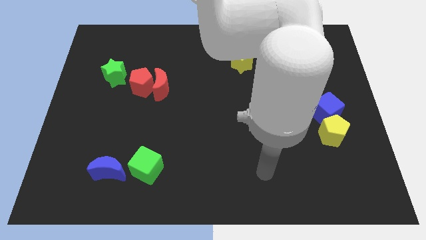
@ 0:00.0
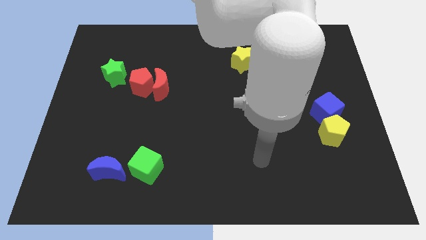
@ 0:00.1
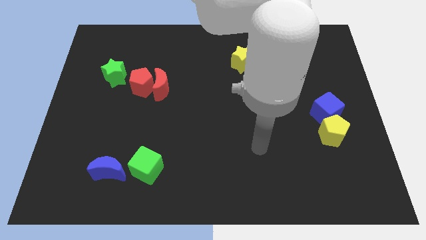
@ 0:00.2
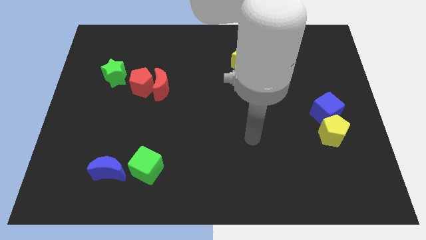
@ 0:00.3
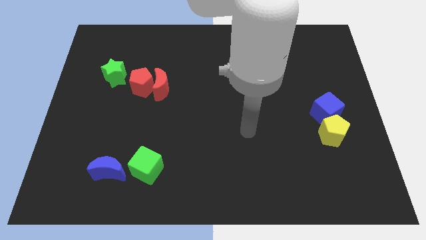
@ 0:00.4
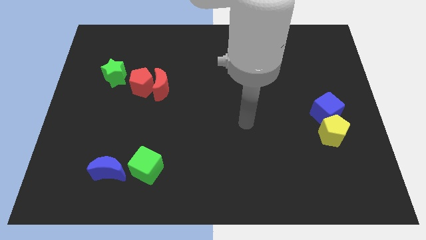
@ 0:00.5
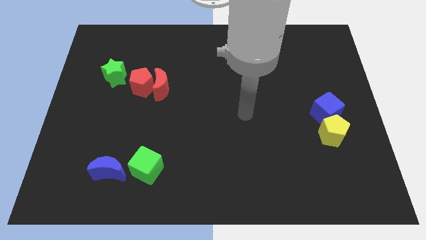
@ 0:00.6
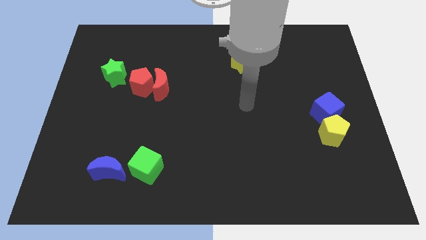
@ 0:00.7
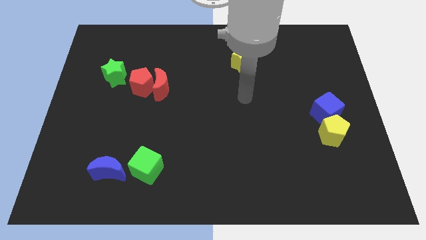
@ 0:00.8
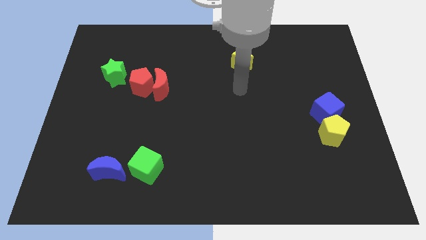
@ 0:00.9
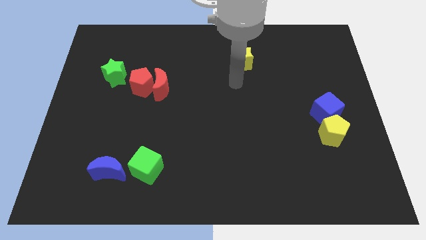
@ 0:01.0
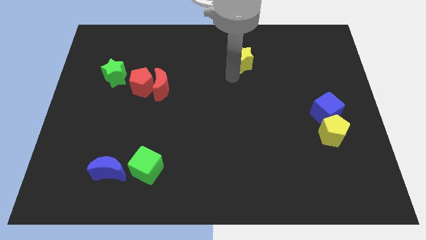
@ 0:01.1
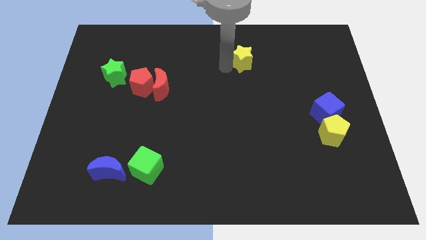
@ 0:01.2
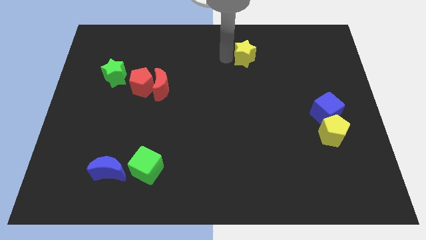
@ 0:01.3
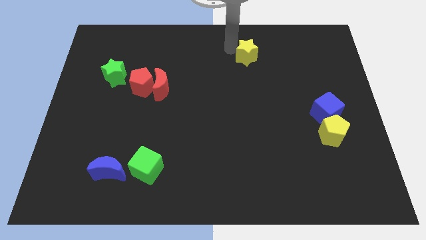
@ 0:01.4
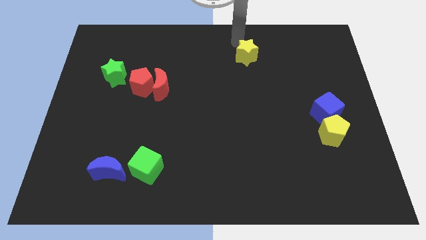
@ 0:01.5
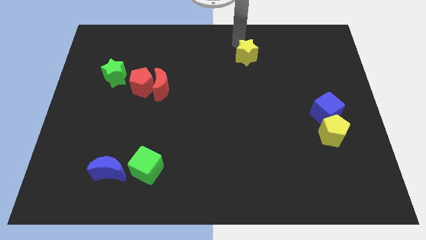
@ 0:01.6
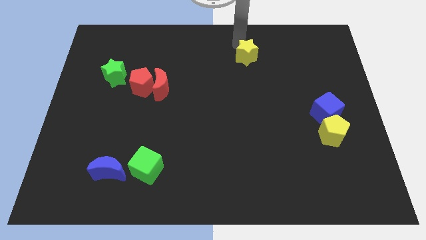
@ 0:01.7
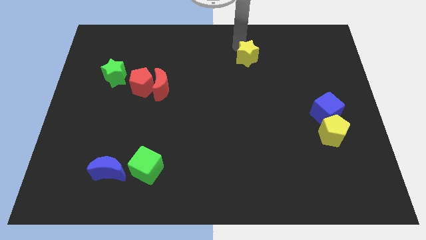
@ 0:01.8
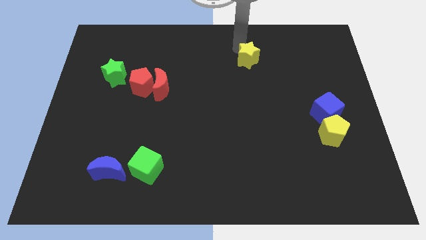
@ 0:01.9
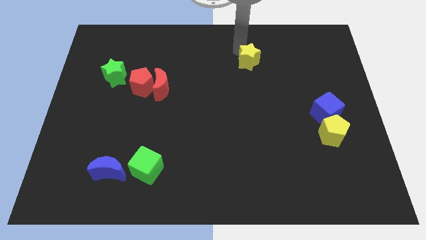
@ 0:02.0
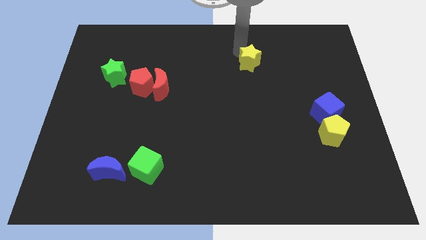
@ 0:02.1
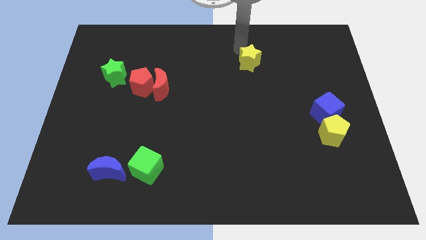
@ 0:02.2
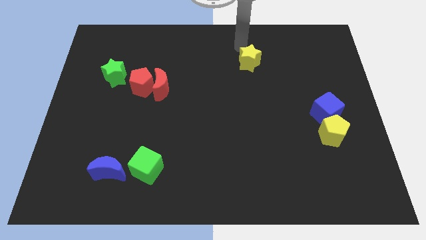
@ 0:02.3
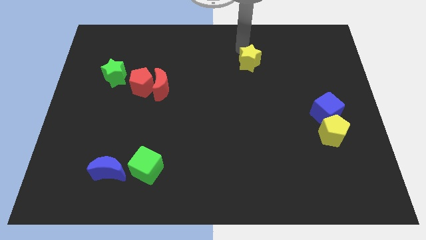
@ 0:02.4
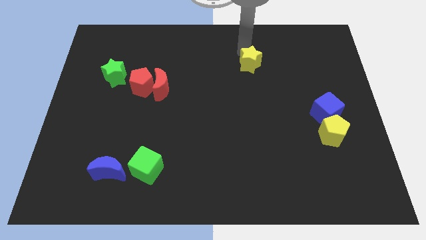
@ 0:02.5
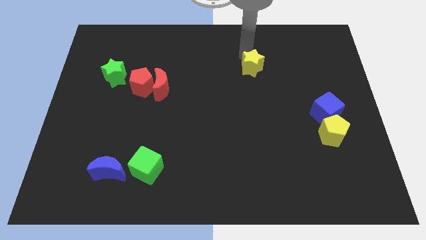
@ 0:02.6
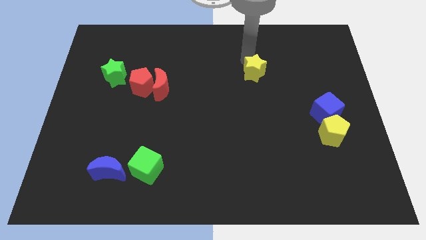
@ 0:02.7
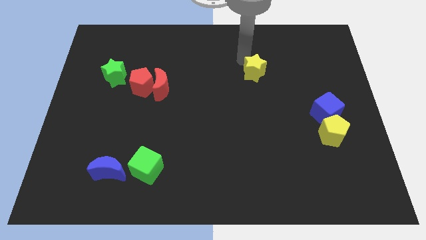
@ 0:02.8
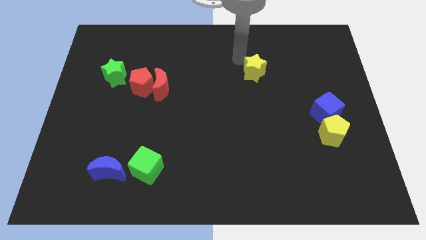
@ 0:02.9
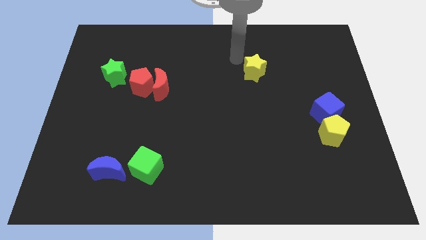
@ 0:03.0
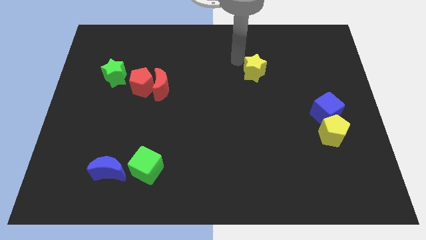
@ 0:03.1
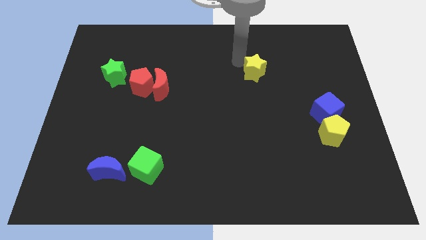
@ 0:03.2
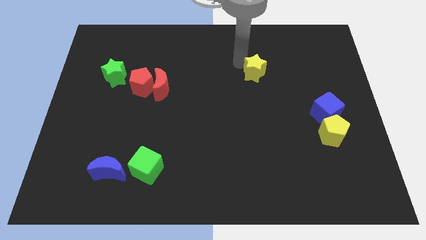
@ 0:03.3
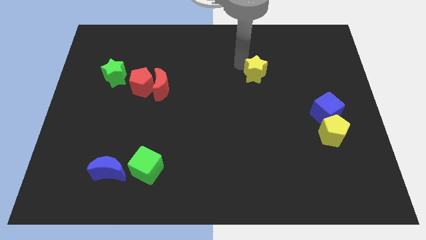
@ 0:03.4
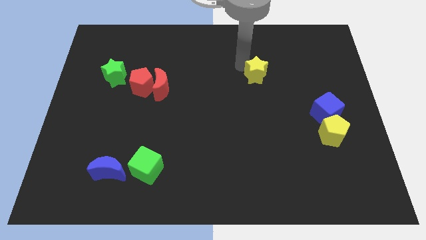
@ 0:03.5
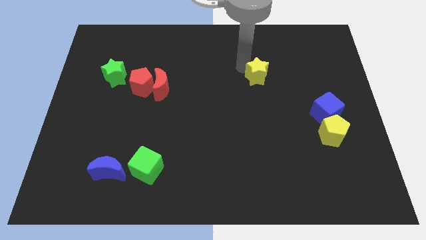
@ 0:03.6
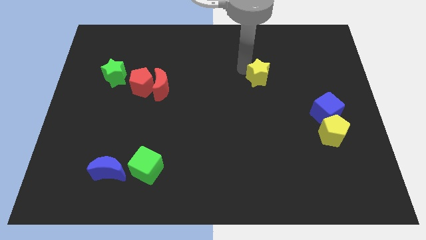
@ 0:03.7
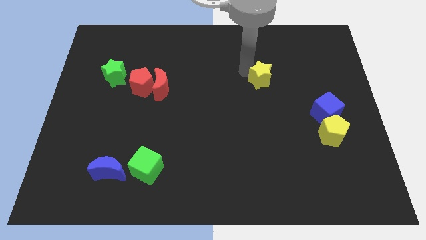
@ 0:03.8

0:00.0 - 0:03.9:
slightly slide the yellow star down and to the right

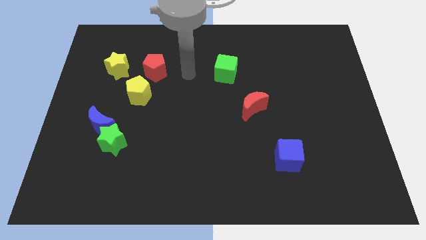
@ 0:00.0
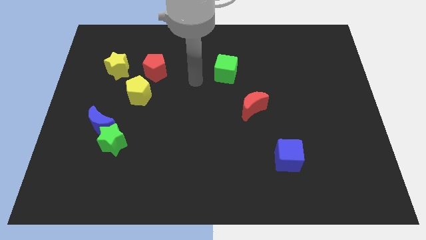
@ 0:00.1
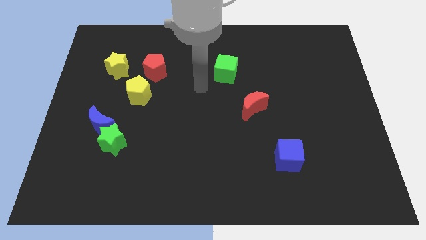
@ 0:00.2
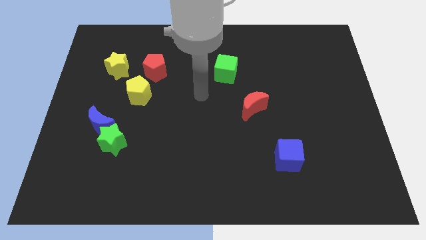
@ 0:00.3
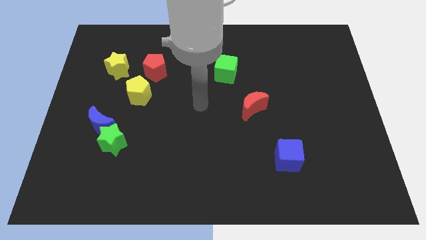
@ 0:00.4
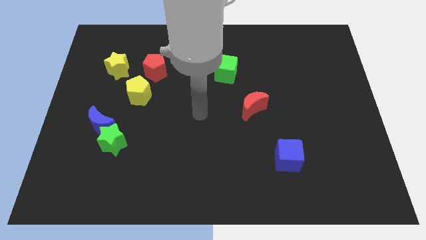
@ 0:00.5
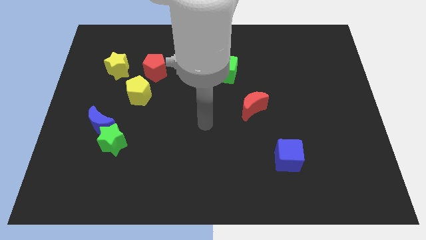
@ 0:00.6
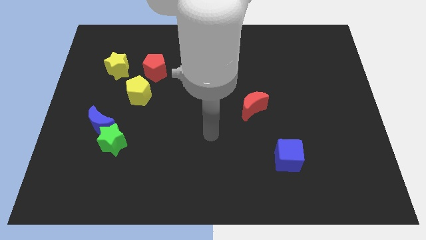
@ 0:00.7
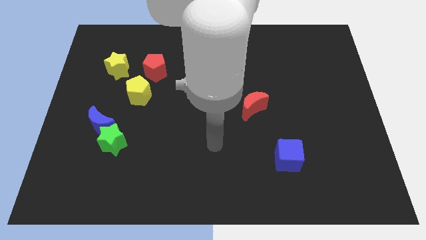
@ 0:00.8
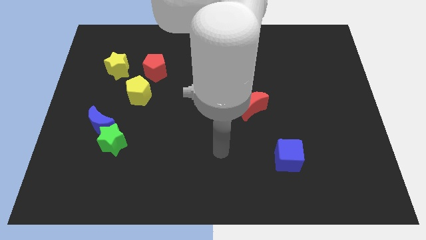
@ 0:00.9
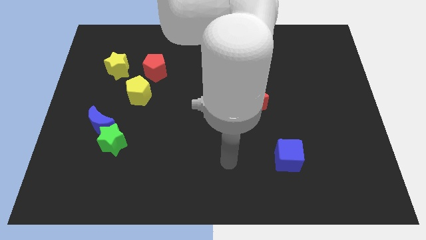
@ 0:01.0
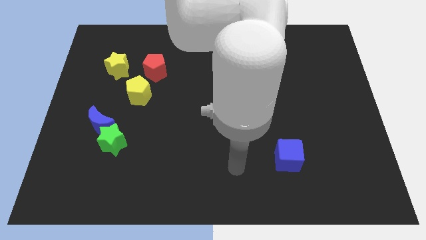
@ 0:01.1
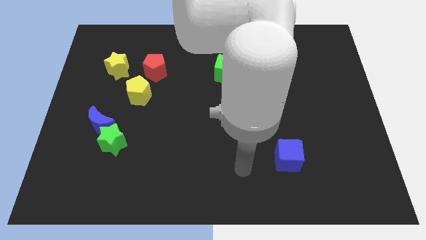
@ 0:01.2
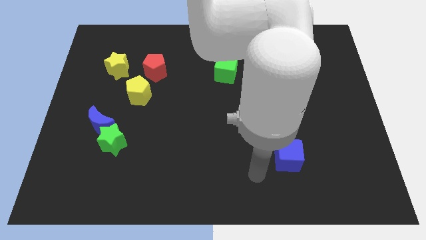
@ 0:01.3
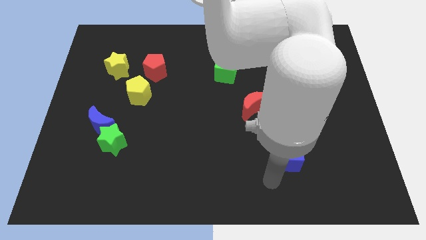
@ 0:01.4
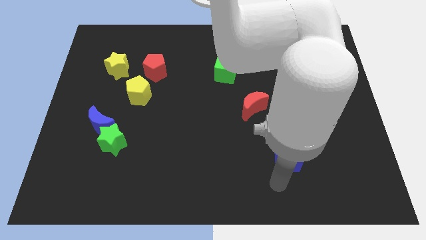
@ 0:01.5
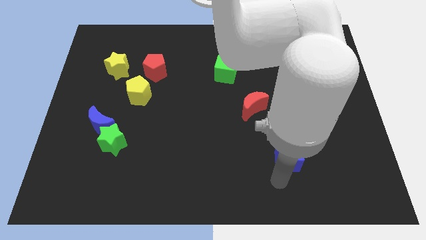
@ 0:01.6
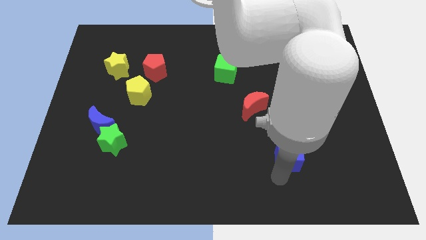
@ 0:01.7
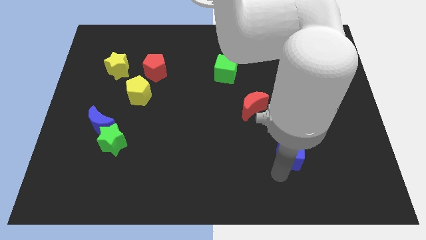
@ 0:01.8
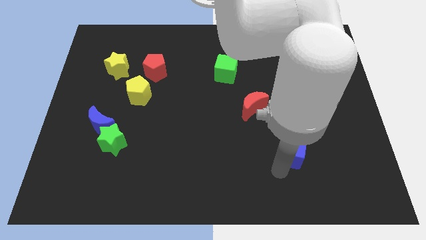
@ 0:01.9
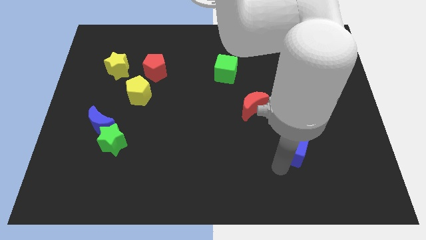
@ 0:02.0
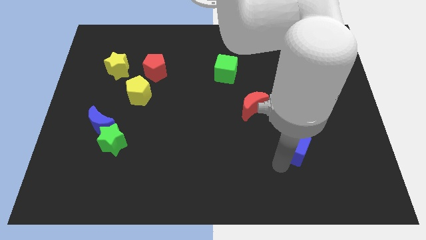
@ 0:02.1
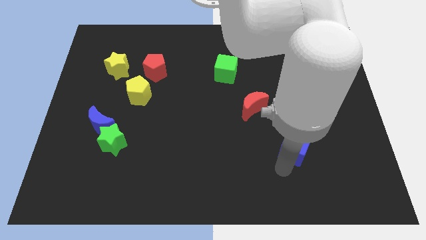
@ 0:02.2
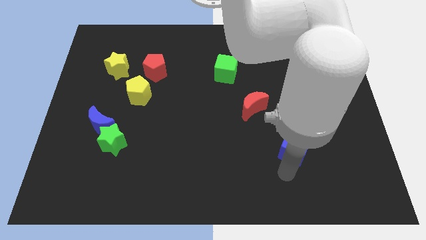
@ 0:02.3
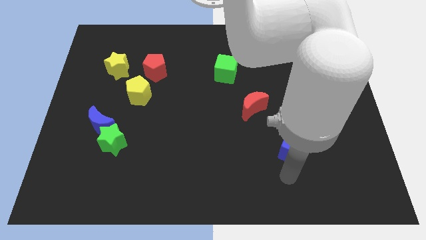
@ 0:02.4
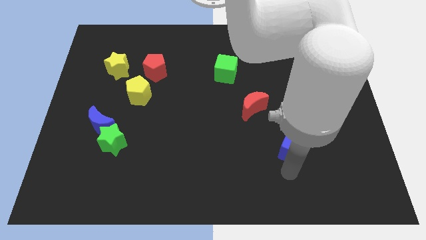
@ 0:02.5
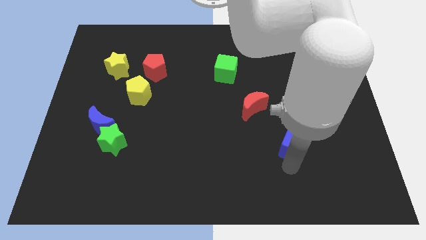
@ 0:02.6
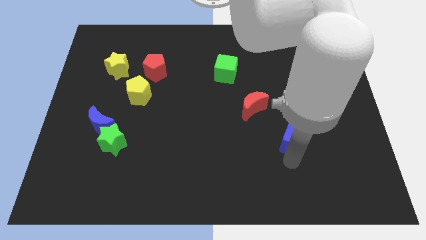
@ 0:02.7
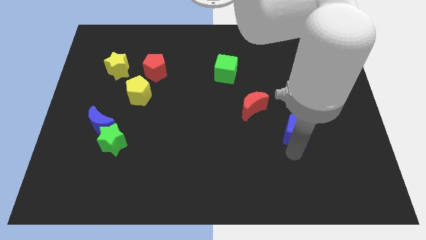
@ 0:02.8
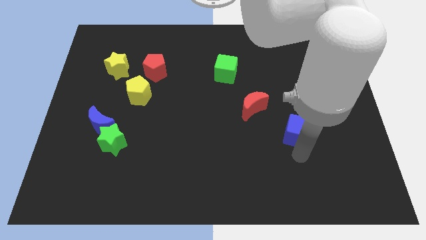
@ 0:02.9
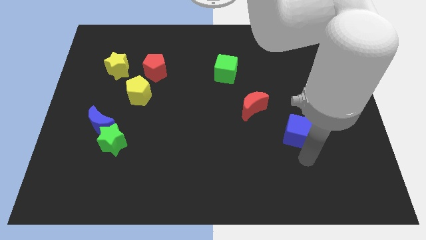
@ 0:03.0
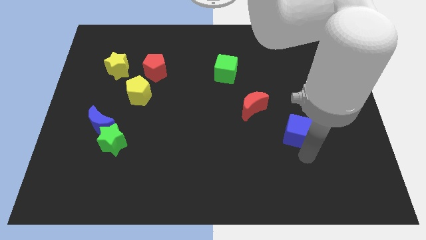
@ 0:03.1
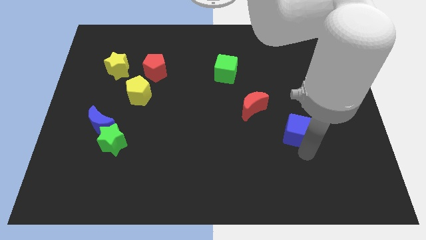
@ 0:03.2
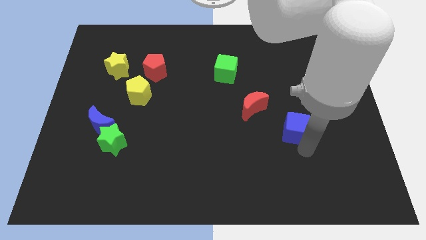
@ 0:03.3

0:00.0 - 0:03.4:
slightly move the blue cube upwards

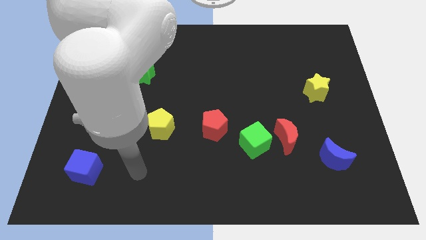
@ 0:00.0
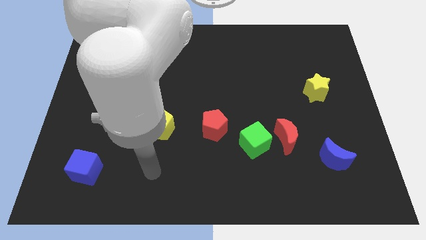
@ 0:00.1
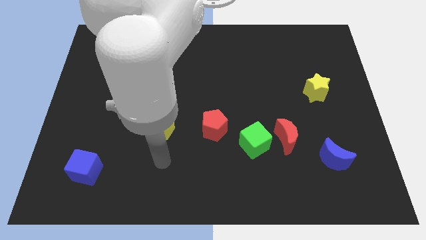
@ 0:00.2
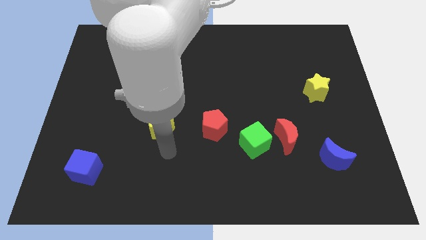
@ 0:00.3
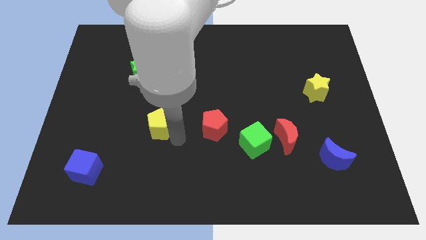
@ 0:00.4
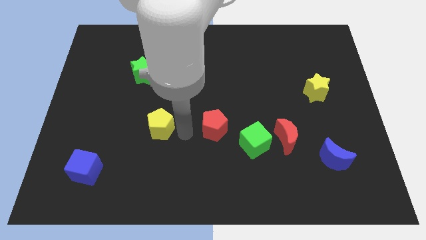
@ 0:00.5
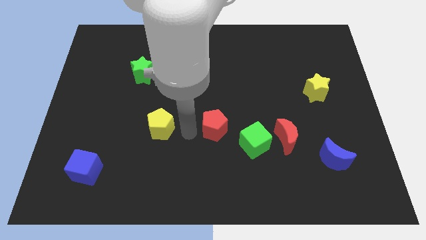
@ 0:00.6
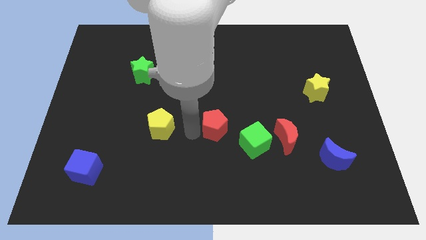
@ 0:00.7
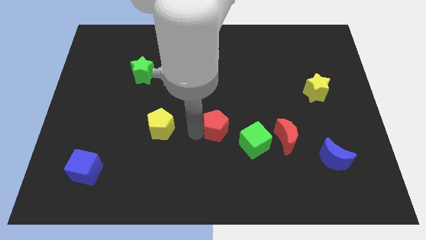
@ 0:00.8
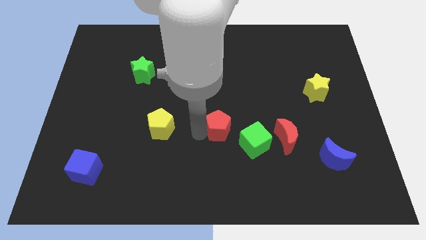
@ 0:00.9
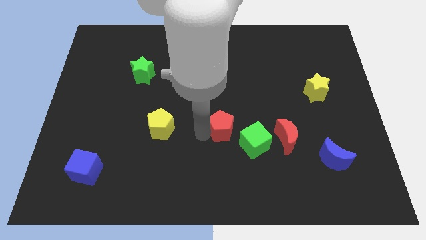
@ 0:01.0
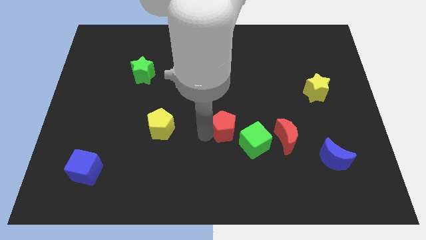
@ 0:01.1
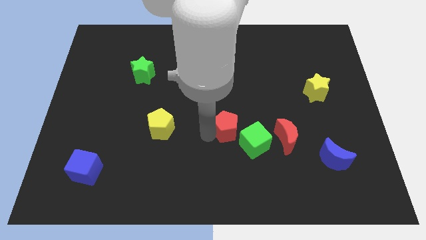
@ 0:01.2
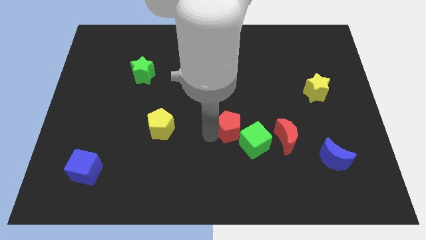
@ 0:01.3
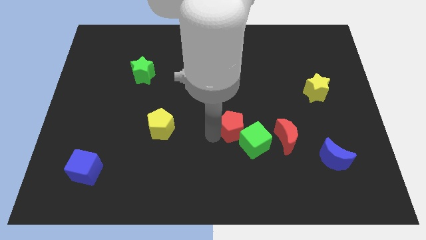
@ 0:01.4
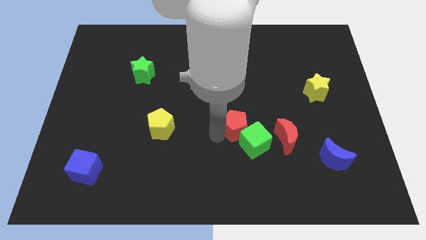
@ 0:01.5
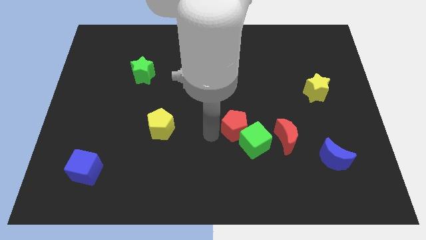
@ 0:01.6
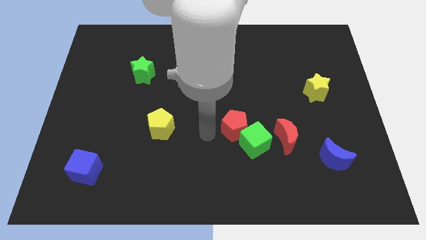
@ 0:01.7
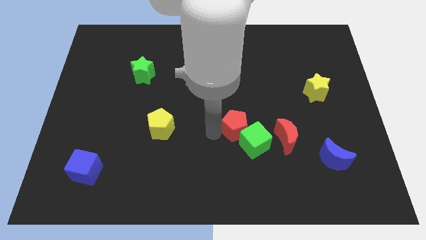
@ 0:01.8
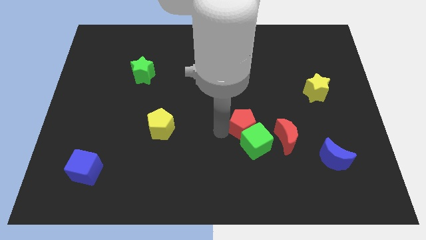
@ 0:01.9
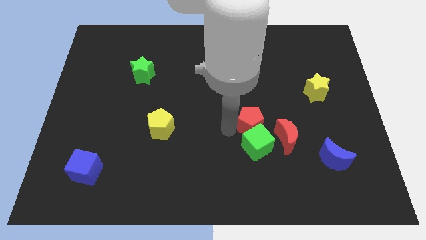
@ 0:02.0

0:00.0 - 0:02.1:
move the red pentagon a little to the right
